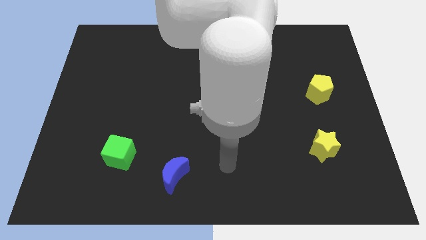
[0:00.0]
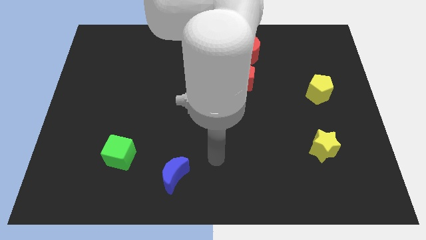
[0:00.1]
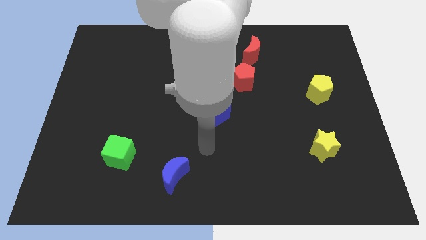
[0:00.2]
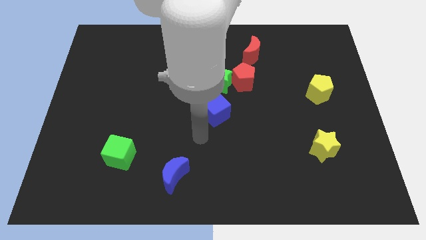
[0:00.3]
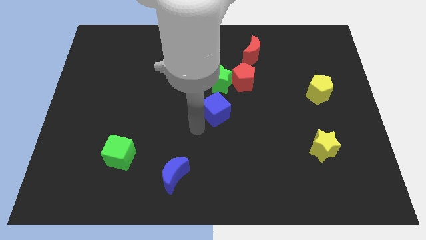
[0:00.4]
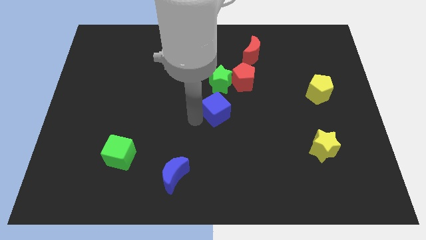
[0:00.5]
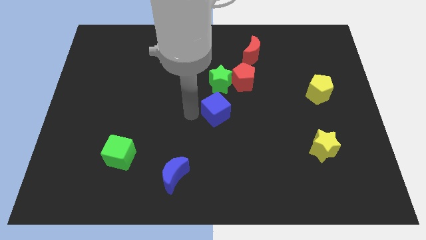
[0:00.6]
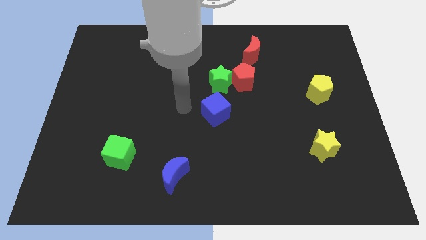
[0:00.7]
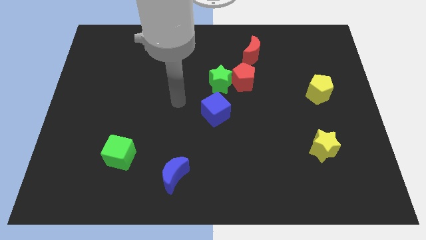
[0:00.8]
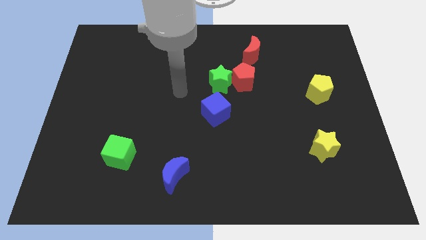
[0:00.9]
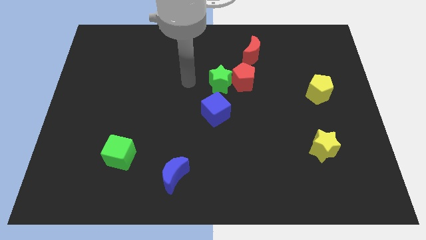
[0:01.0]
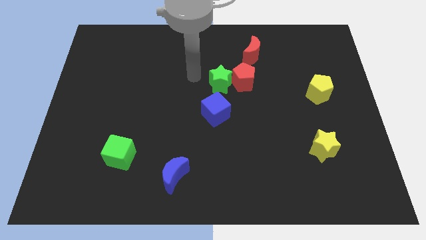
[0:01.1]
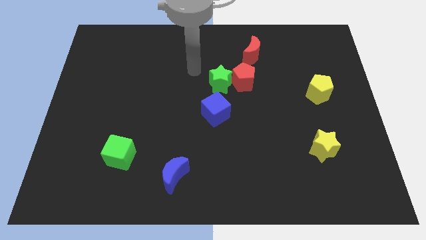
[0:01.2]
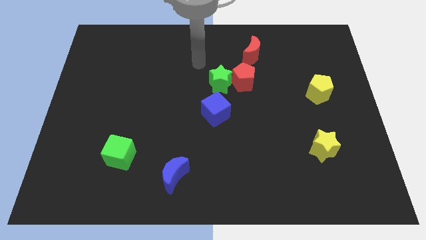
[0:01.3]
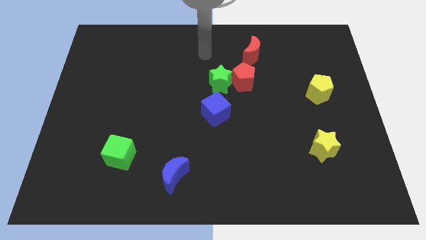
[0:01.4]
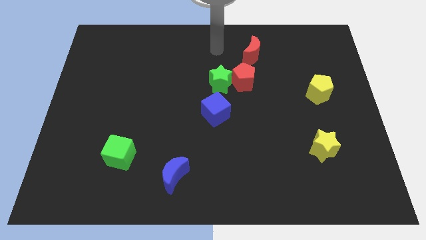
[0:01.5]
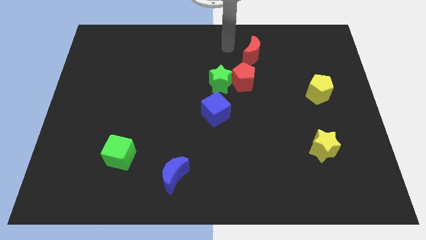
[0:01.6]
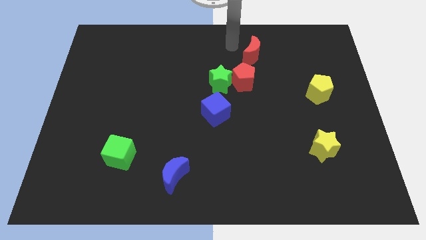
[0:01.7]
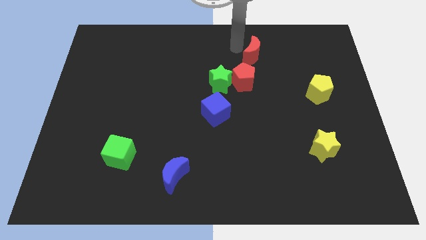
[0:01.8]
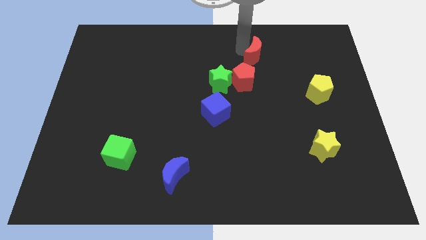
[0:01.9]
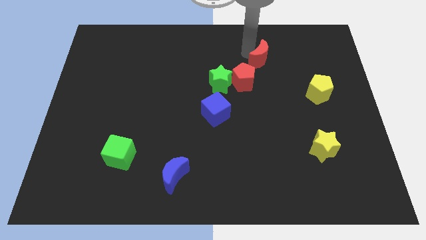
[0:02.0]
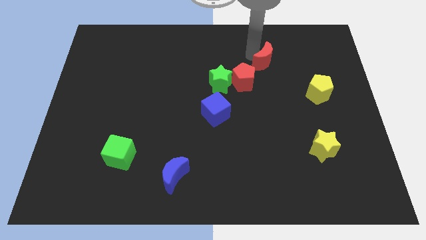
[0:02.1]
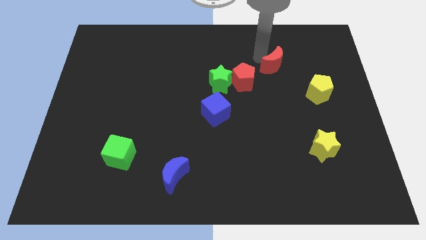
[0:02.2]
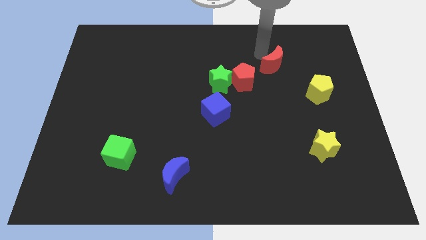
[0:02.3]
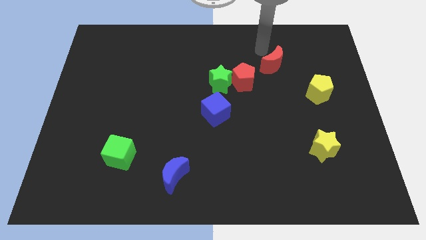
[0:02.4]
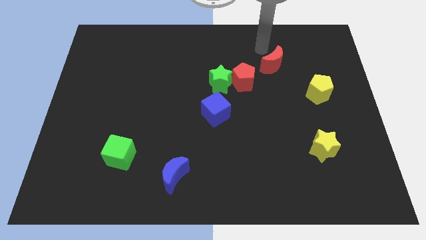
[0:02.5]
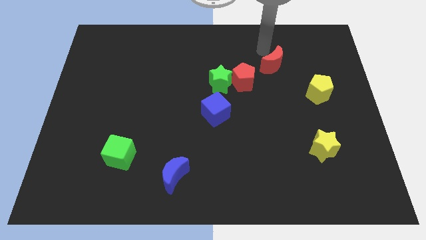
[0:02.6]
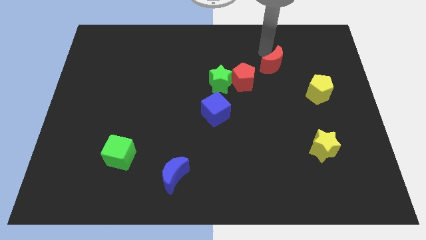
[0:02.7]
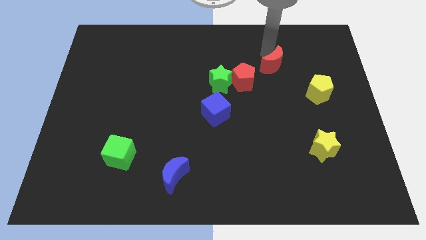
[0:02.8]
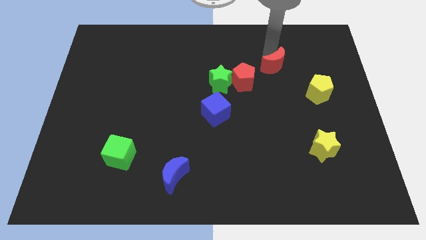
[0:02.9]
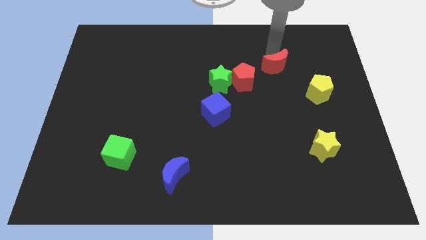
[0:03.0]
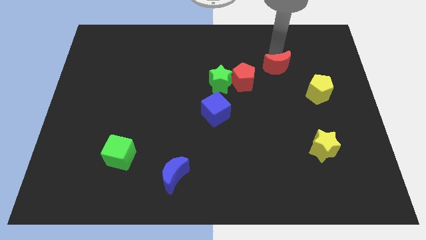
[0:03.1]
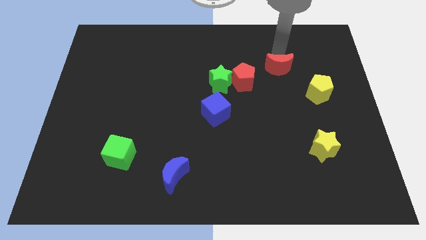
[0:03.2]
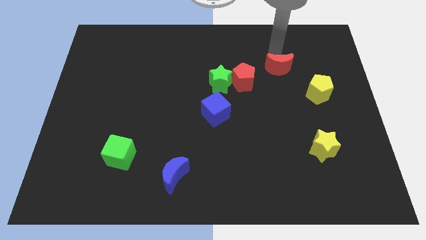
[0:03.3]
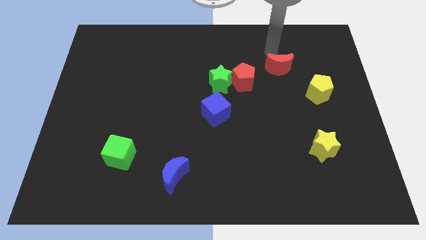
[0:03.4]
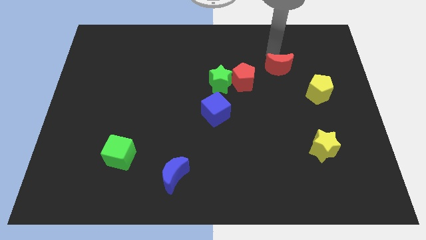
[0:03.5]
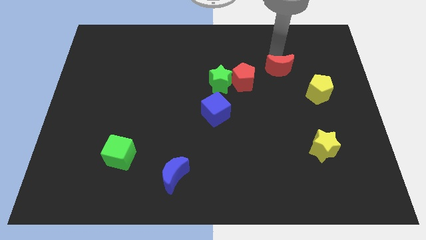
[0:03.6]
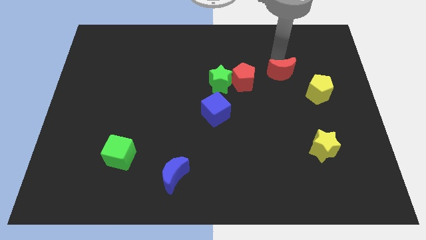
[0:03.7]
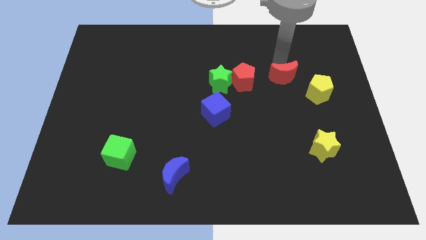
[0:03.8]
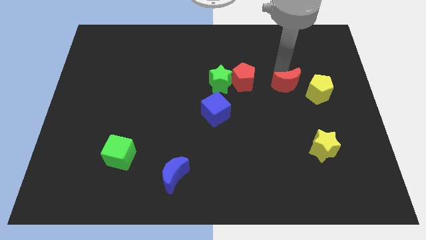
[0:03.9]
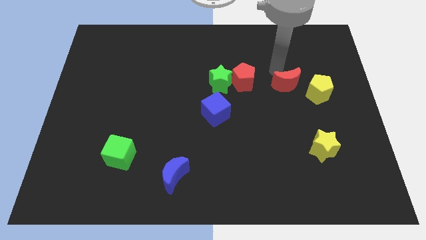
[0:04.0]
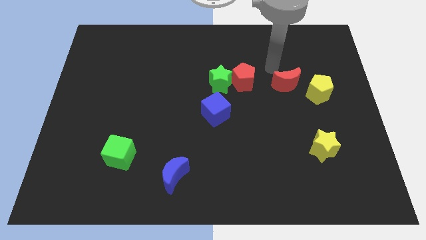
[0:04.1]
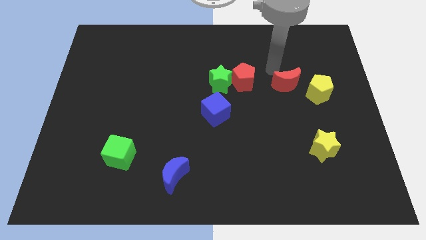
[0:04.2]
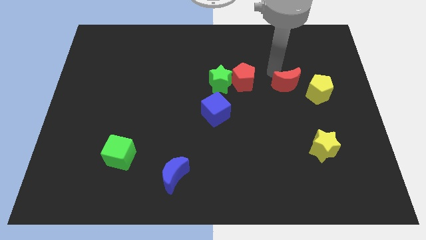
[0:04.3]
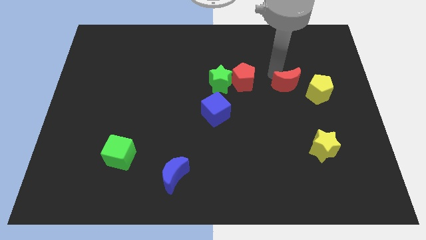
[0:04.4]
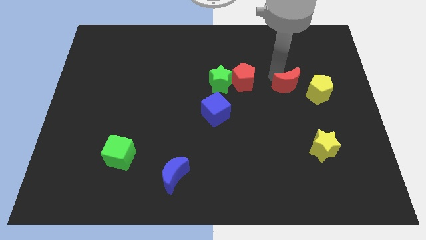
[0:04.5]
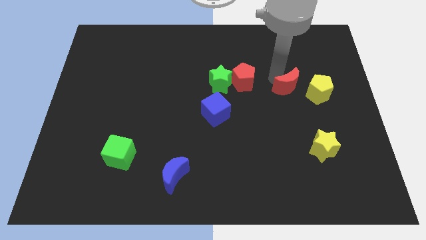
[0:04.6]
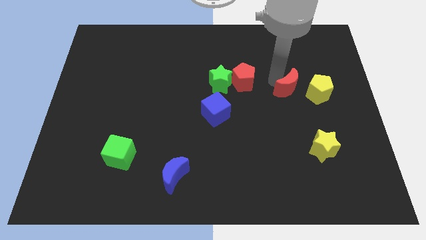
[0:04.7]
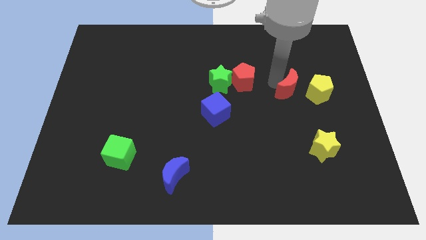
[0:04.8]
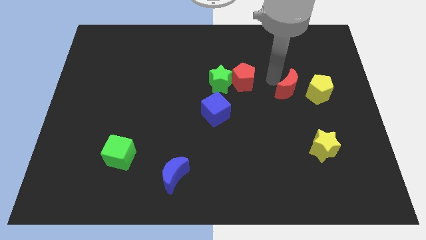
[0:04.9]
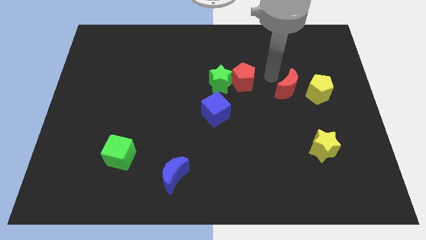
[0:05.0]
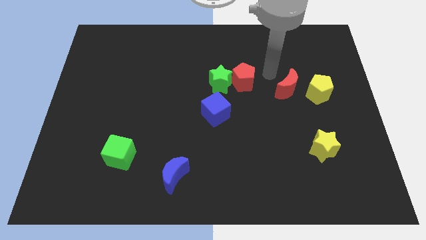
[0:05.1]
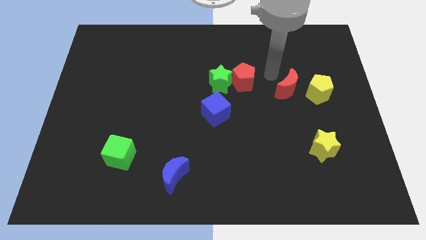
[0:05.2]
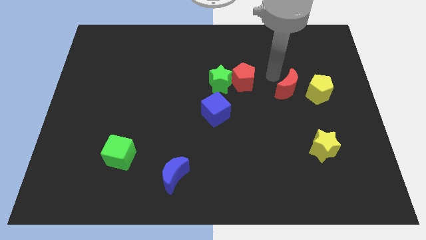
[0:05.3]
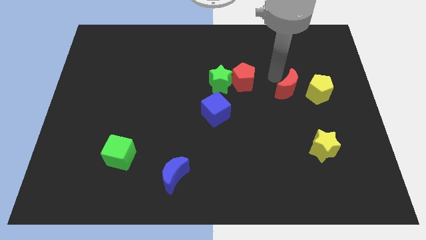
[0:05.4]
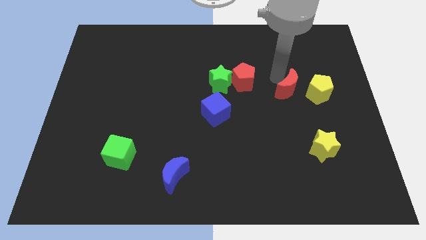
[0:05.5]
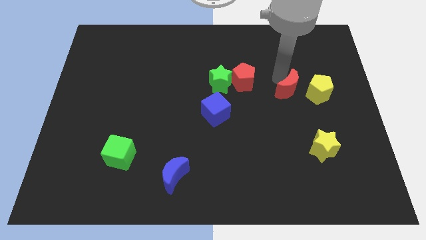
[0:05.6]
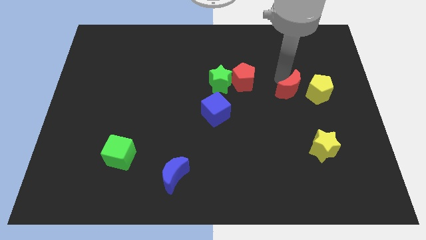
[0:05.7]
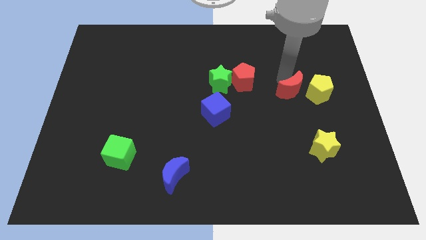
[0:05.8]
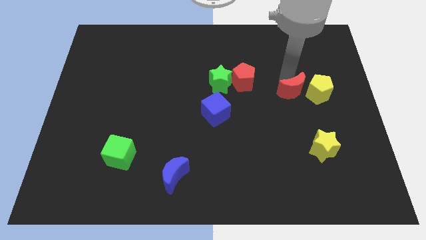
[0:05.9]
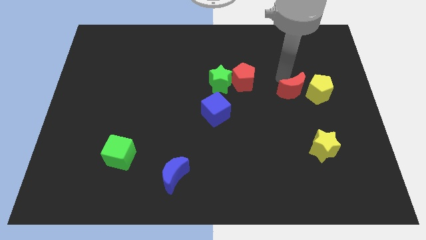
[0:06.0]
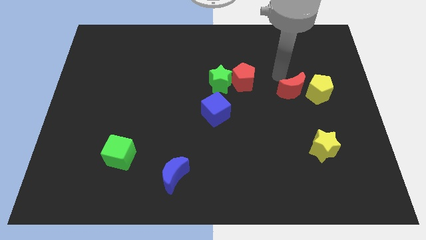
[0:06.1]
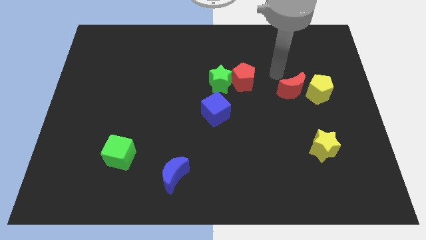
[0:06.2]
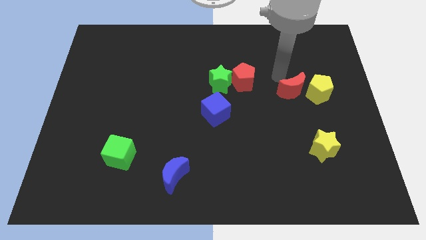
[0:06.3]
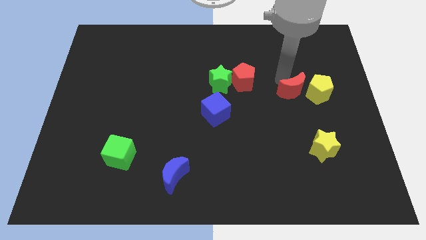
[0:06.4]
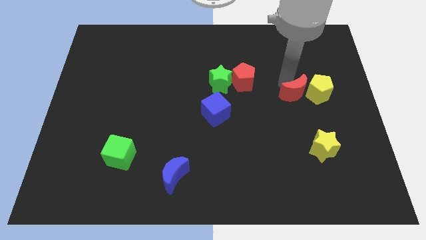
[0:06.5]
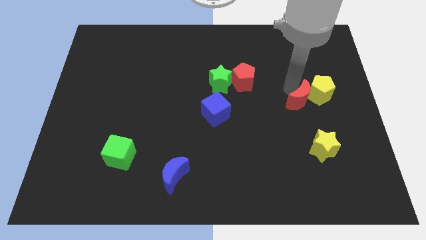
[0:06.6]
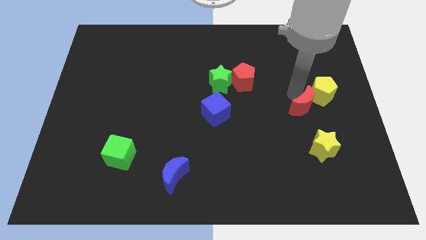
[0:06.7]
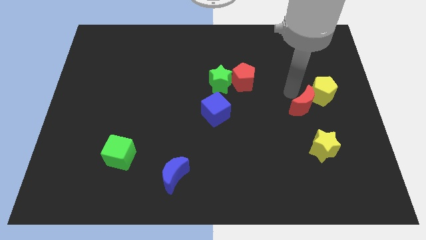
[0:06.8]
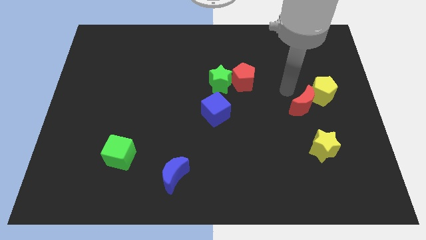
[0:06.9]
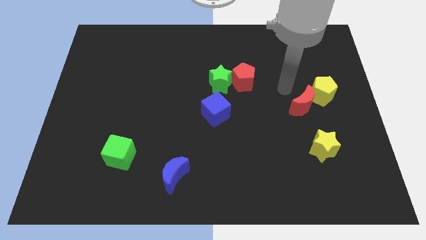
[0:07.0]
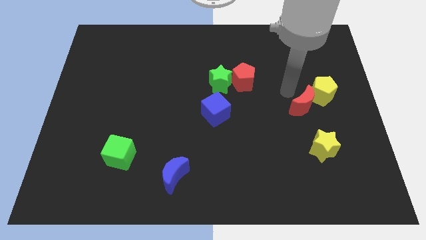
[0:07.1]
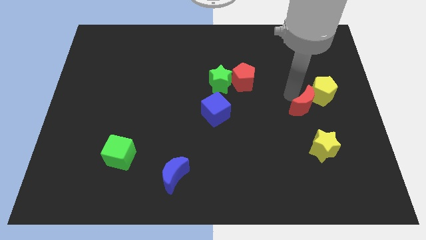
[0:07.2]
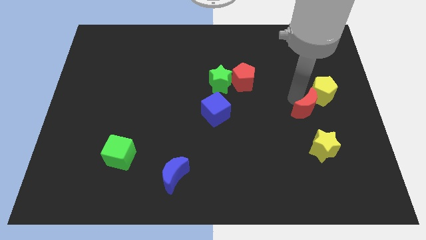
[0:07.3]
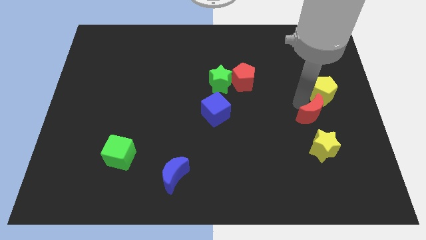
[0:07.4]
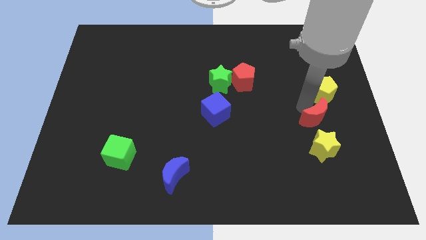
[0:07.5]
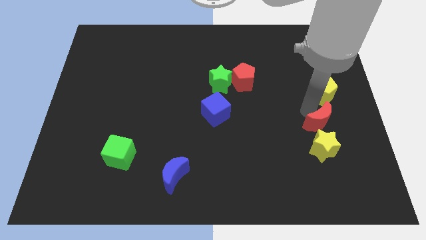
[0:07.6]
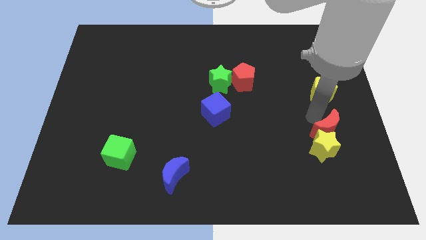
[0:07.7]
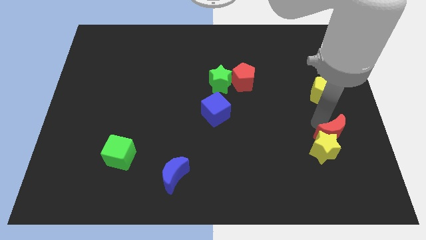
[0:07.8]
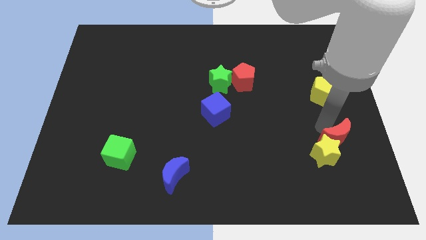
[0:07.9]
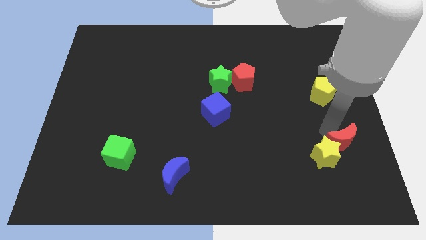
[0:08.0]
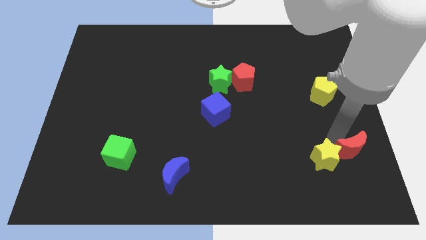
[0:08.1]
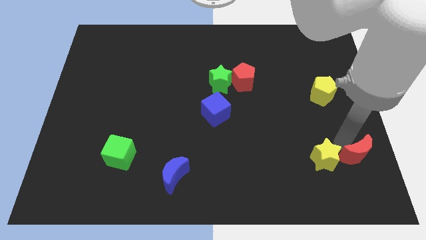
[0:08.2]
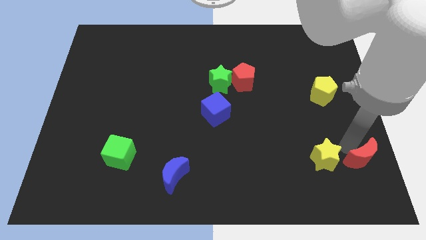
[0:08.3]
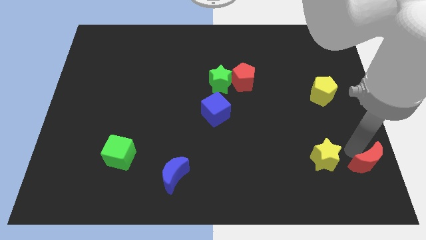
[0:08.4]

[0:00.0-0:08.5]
push the red moon to the bottom right corner
